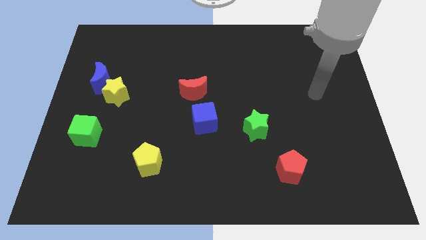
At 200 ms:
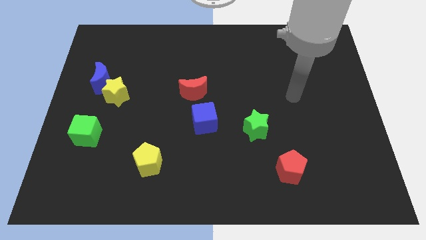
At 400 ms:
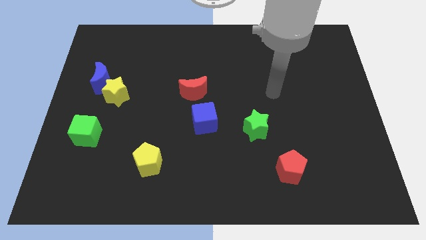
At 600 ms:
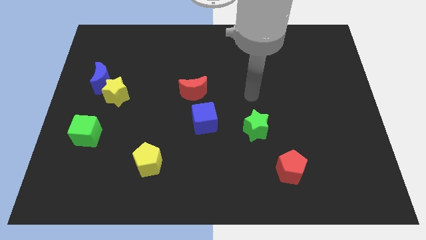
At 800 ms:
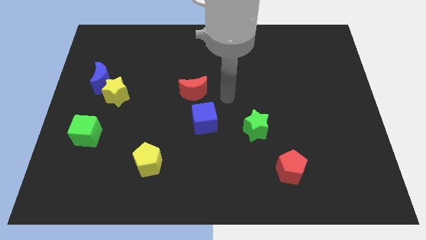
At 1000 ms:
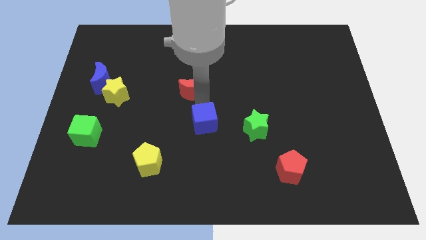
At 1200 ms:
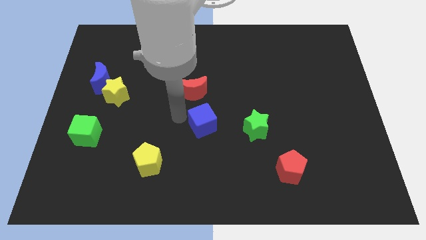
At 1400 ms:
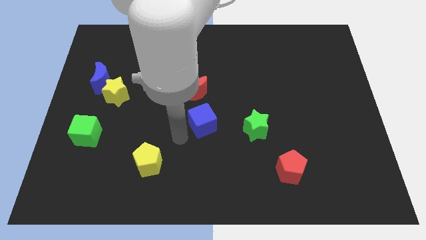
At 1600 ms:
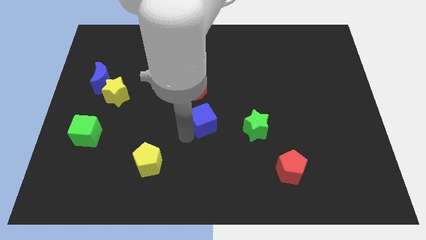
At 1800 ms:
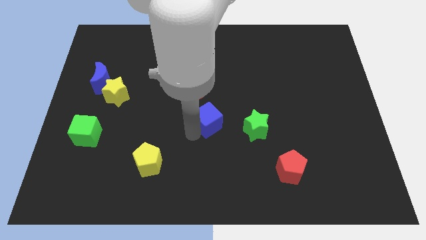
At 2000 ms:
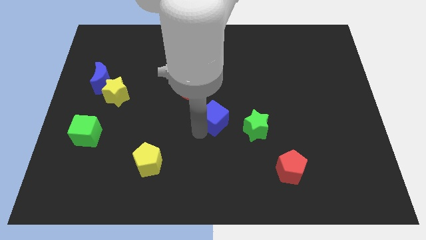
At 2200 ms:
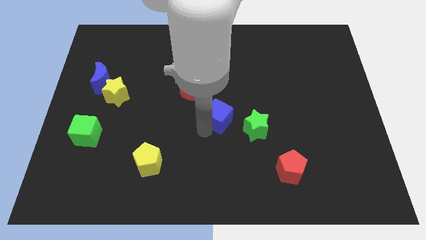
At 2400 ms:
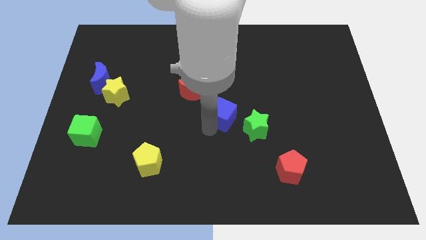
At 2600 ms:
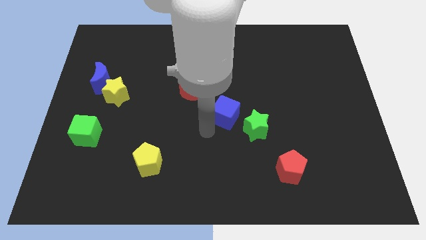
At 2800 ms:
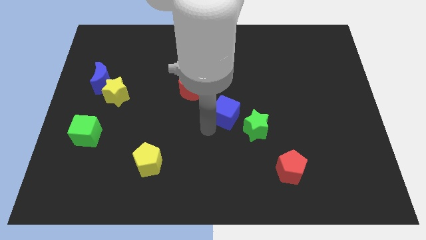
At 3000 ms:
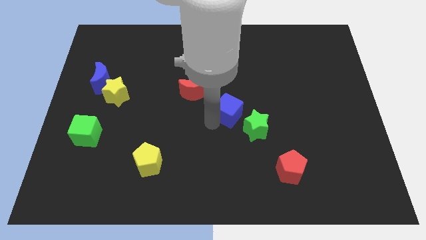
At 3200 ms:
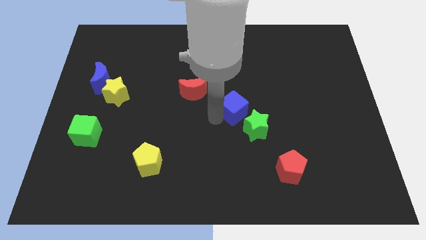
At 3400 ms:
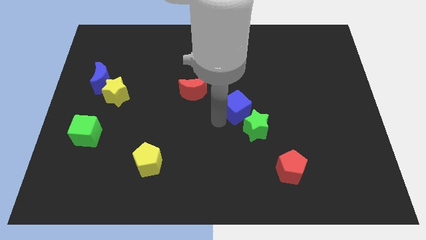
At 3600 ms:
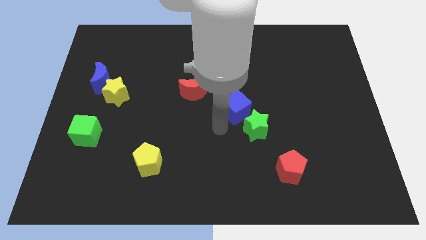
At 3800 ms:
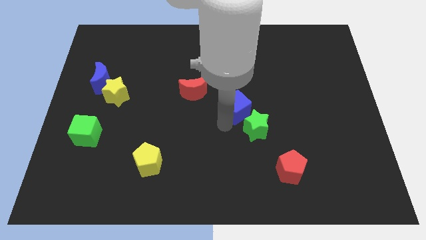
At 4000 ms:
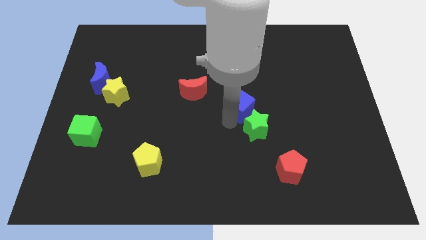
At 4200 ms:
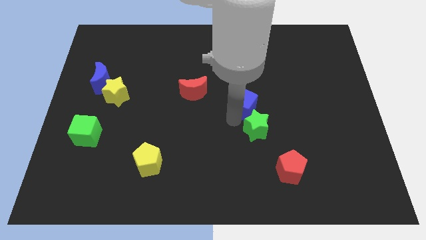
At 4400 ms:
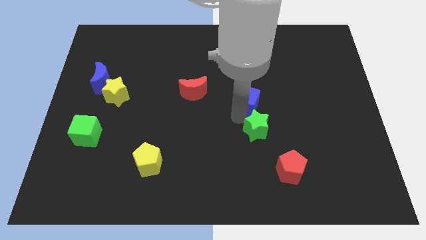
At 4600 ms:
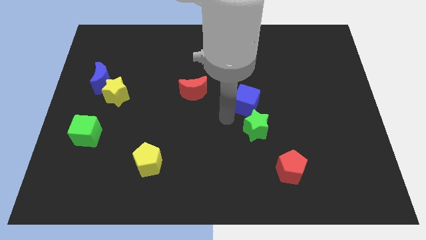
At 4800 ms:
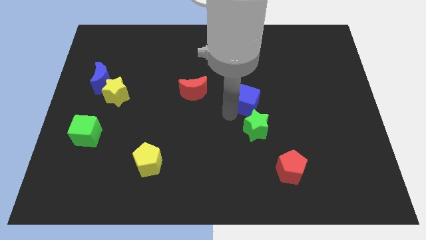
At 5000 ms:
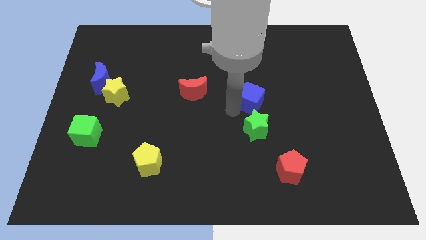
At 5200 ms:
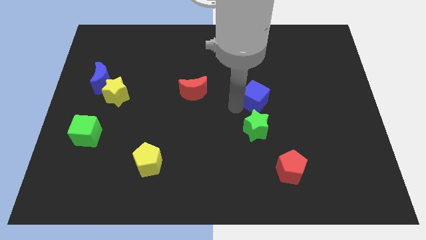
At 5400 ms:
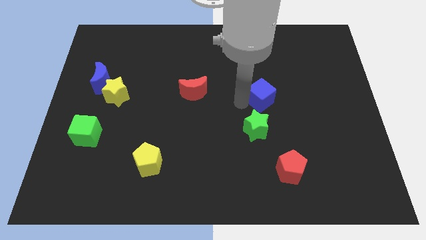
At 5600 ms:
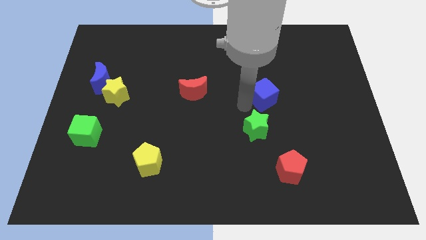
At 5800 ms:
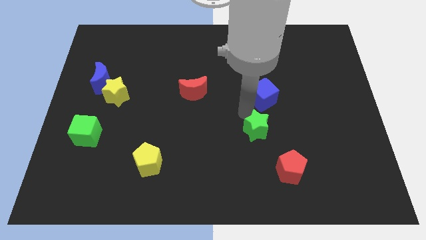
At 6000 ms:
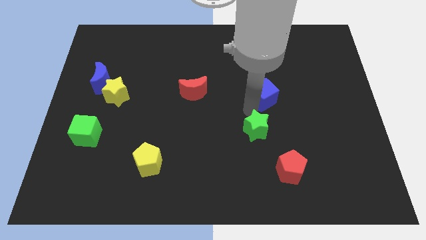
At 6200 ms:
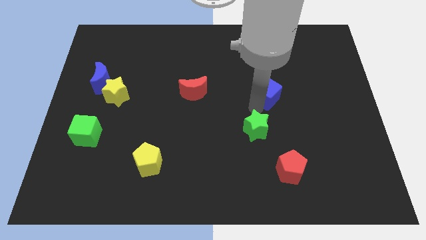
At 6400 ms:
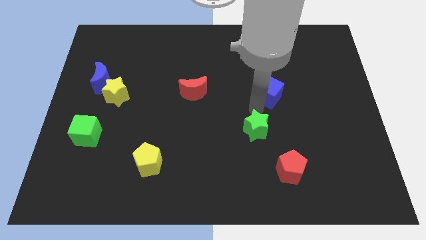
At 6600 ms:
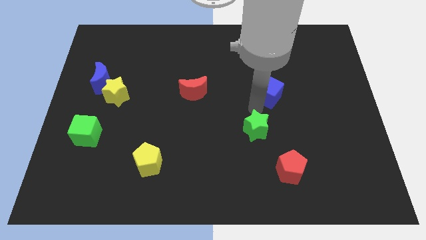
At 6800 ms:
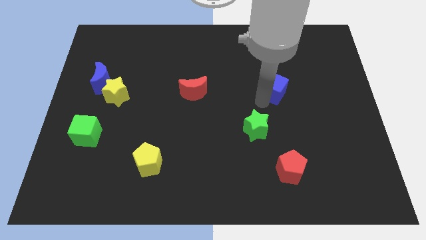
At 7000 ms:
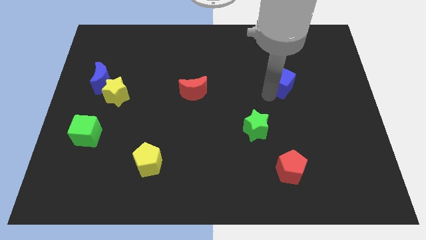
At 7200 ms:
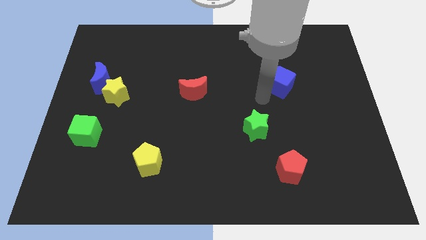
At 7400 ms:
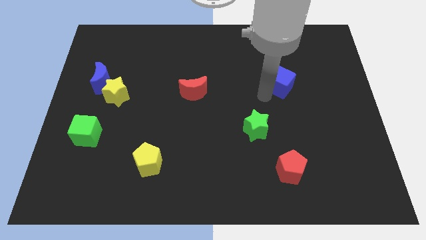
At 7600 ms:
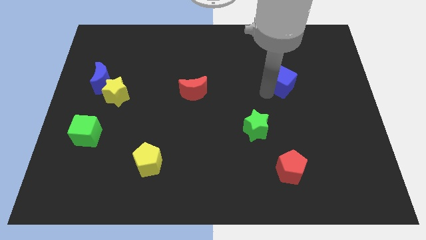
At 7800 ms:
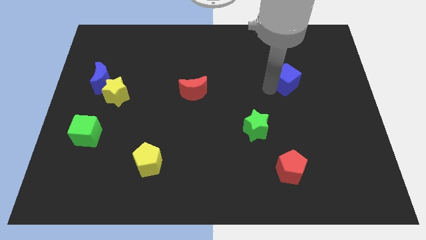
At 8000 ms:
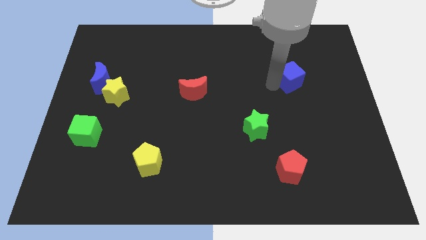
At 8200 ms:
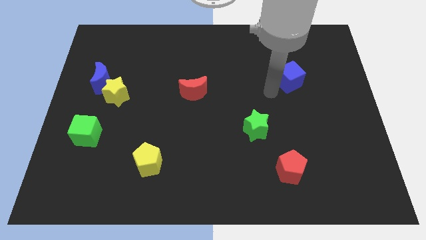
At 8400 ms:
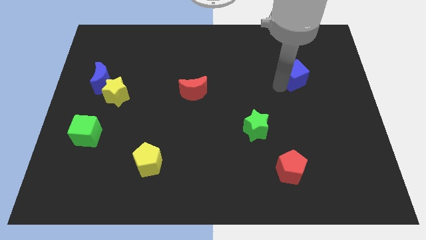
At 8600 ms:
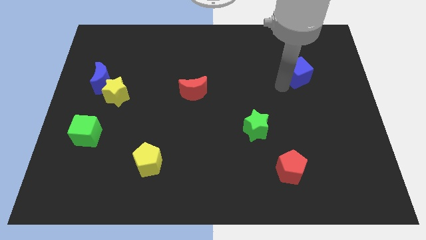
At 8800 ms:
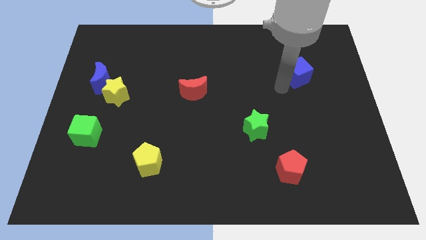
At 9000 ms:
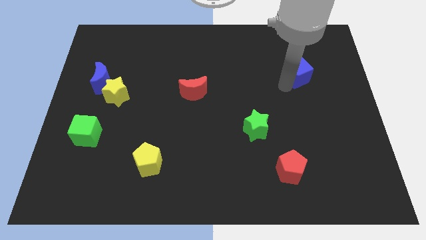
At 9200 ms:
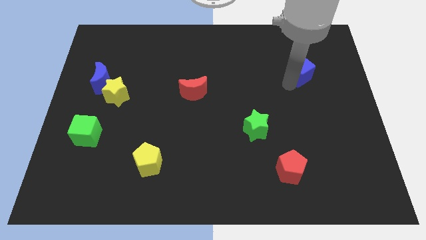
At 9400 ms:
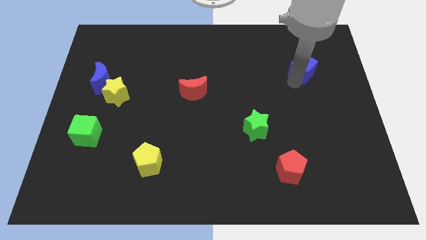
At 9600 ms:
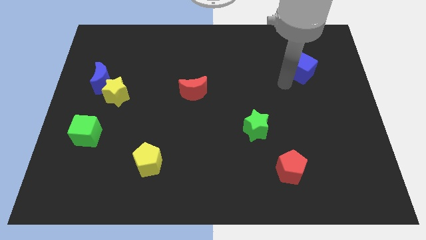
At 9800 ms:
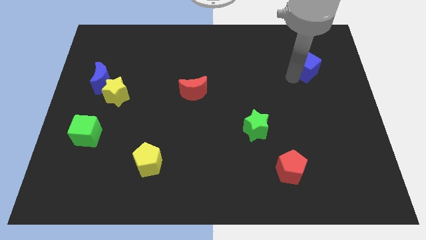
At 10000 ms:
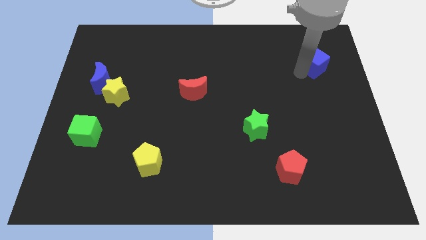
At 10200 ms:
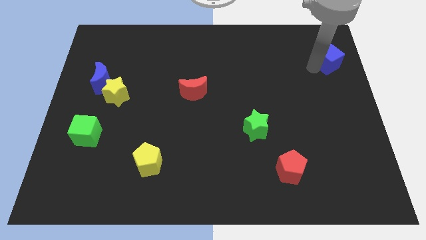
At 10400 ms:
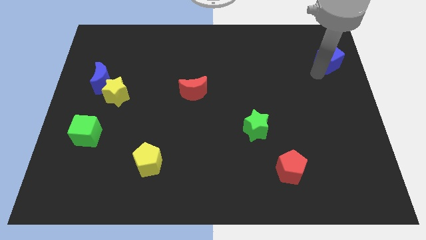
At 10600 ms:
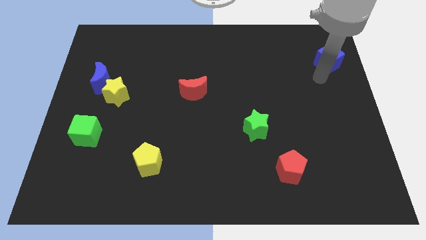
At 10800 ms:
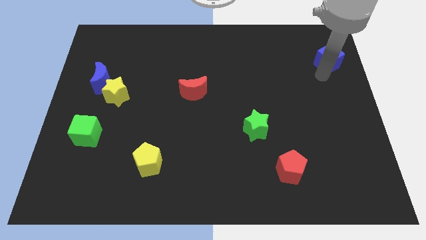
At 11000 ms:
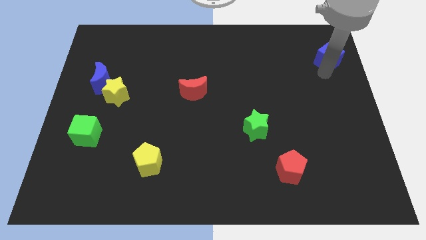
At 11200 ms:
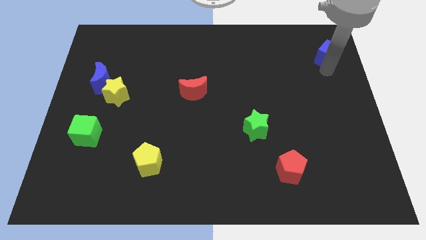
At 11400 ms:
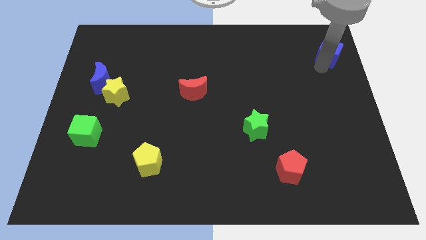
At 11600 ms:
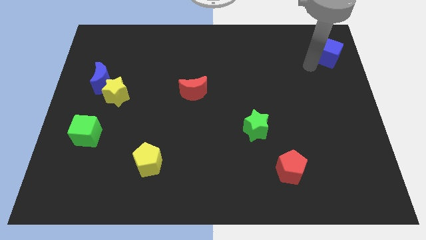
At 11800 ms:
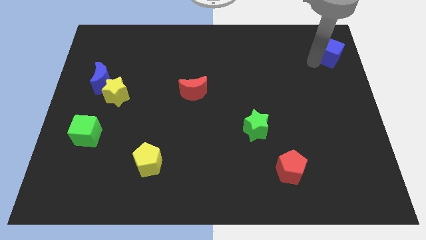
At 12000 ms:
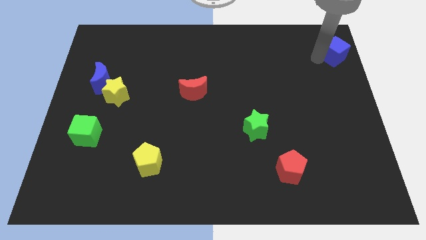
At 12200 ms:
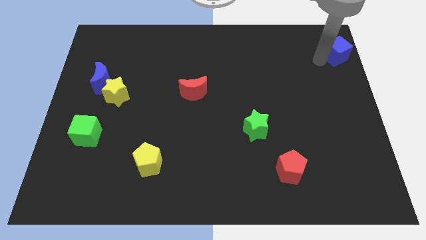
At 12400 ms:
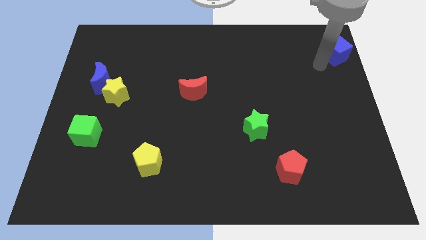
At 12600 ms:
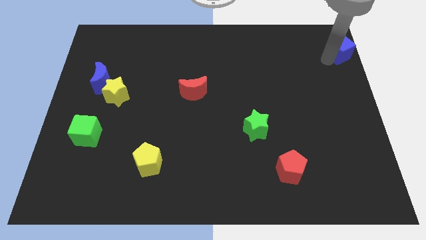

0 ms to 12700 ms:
slide the blue cube to the top right
